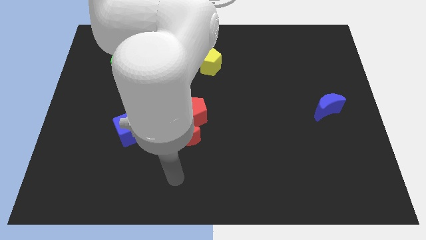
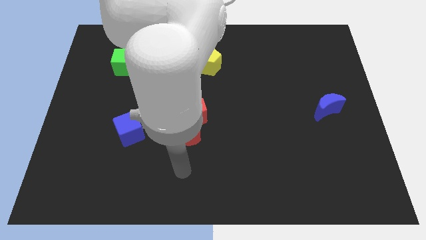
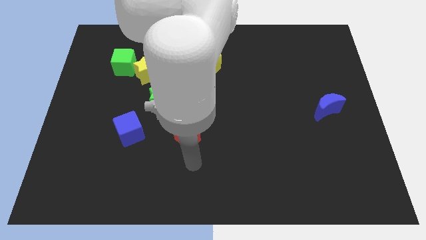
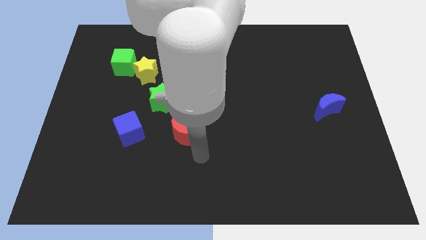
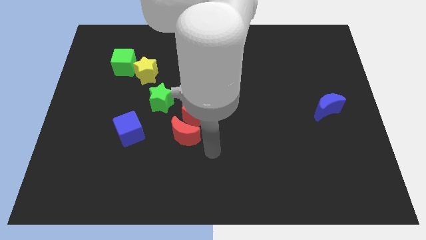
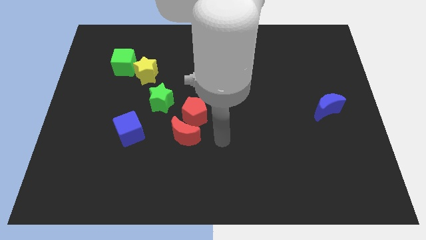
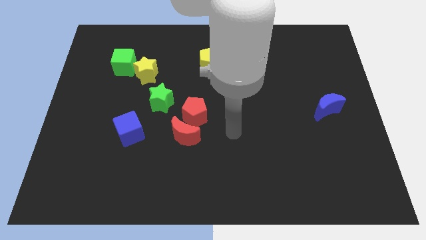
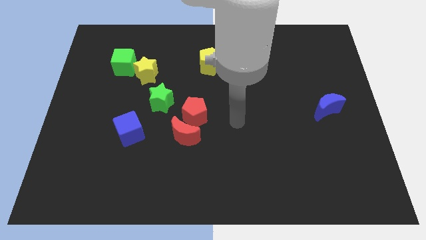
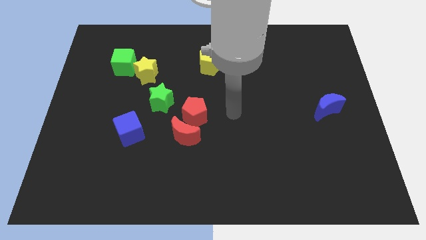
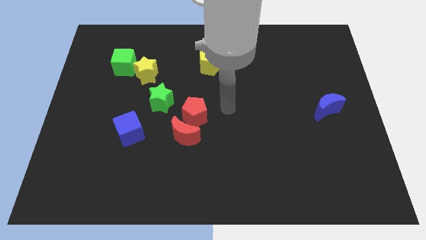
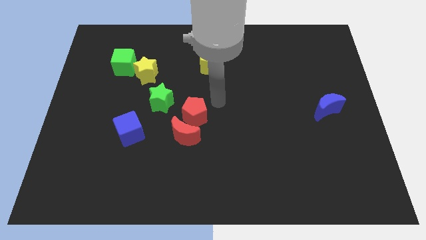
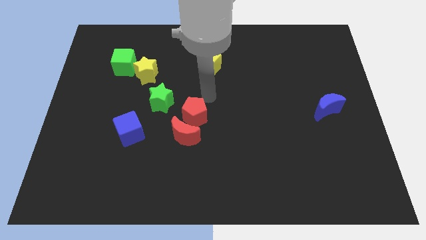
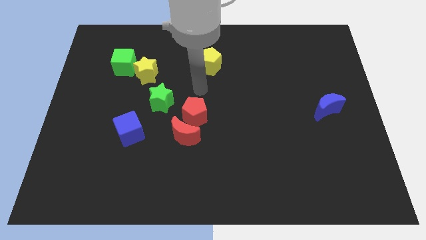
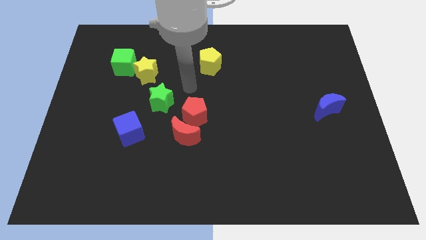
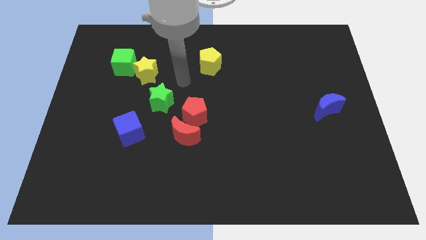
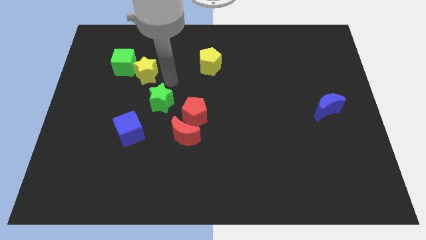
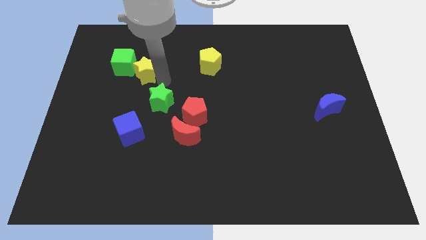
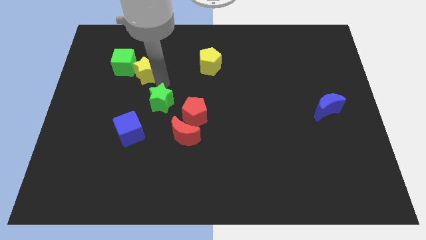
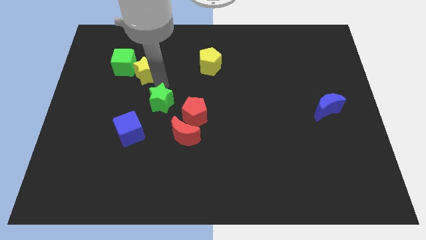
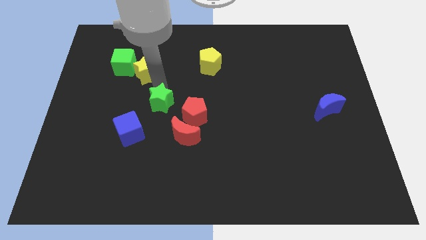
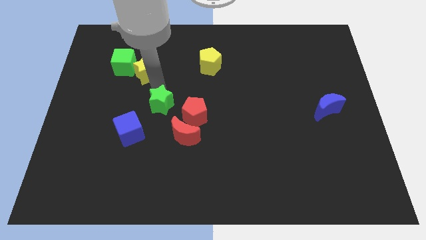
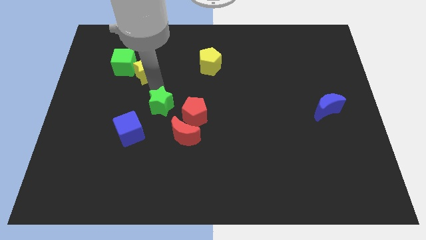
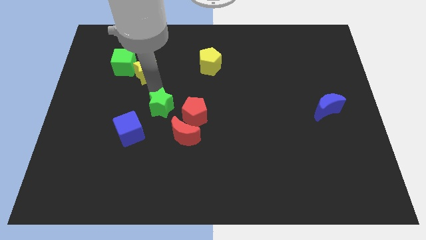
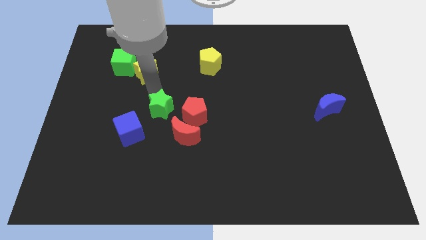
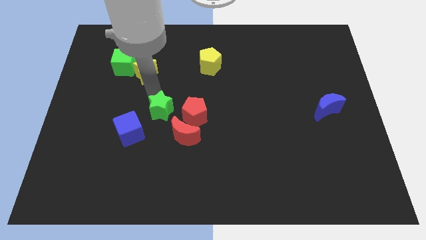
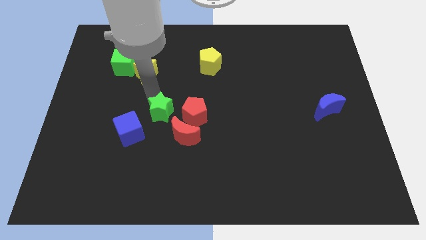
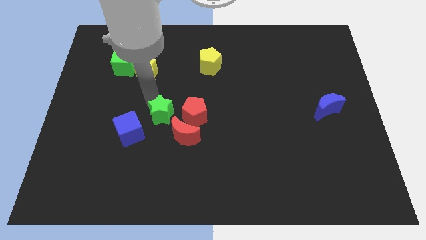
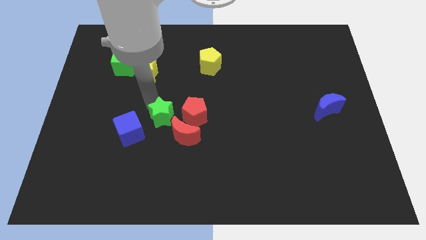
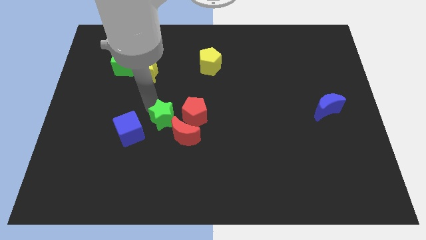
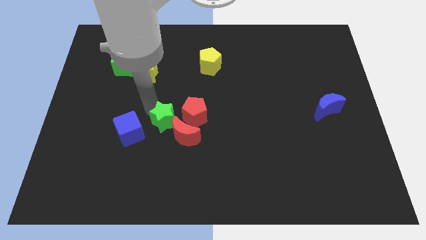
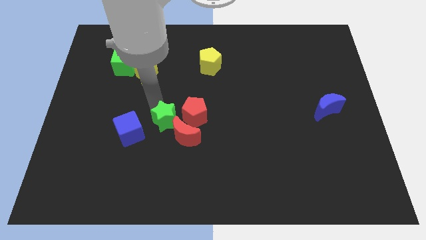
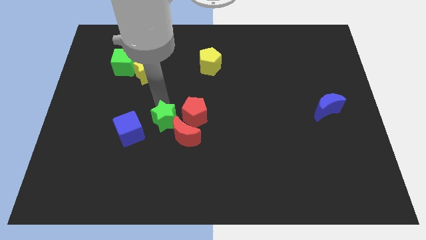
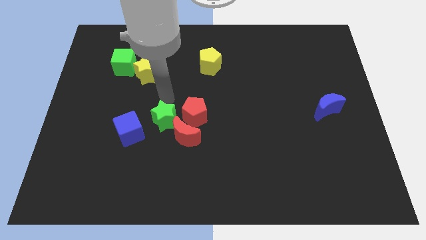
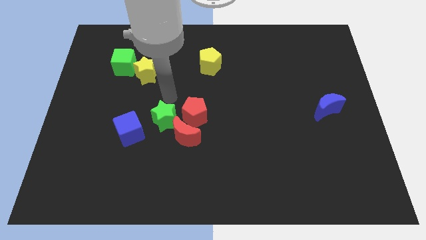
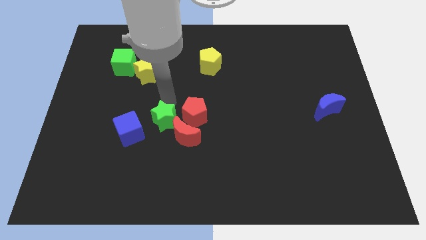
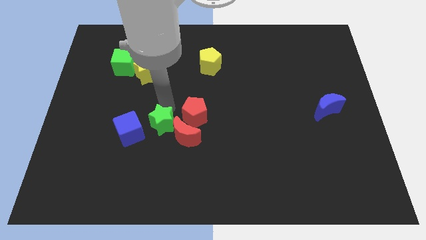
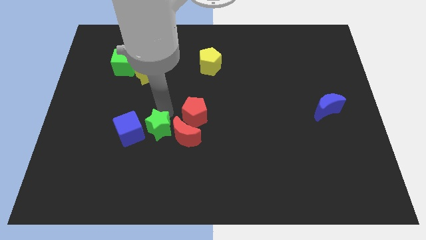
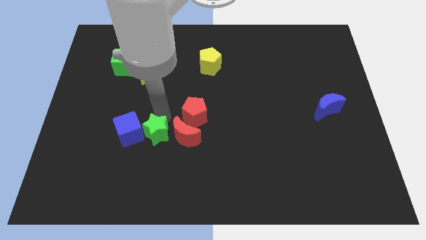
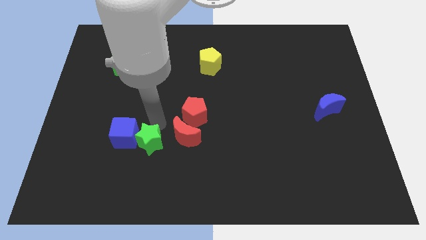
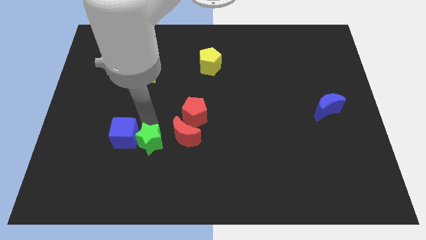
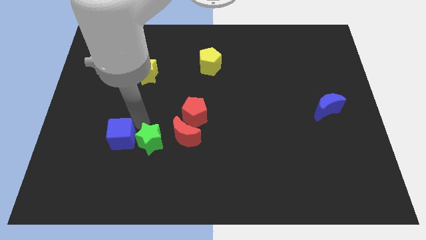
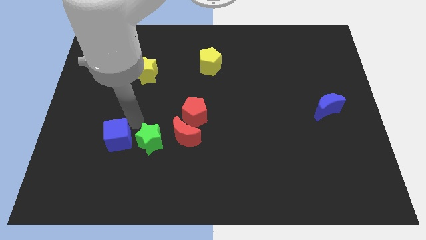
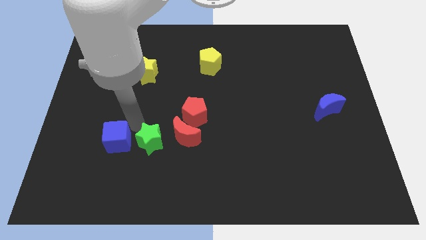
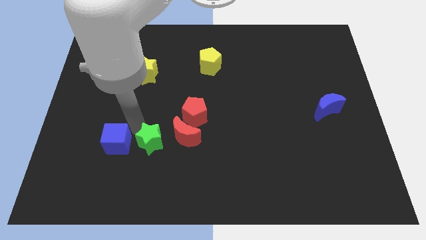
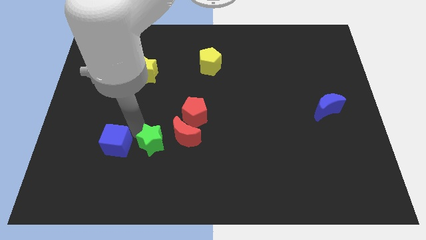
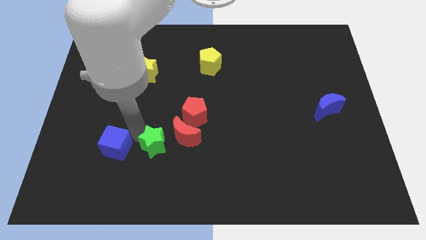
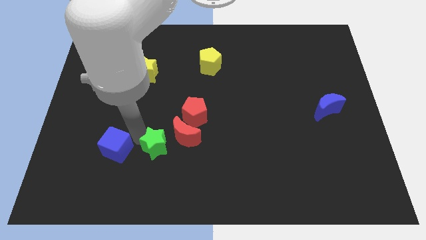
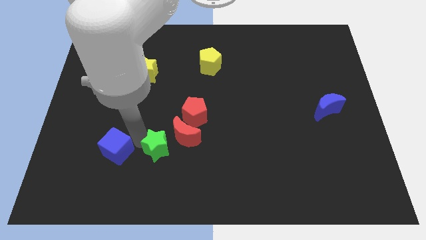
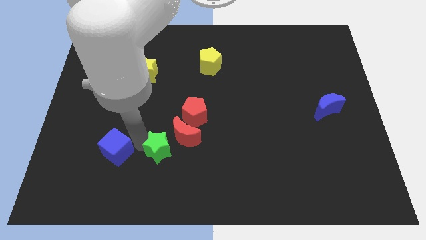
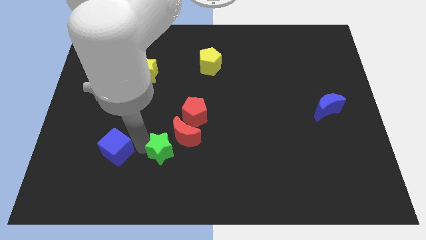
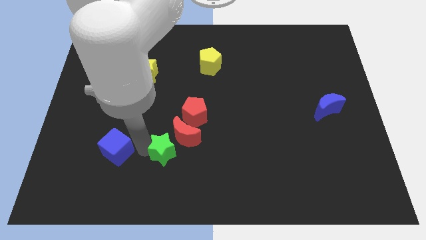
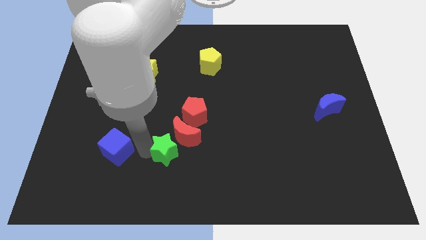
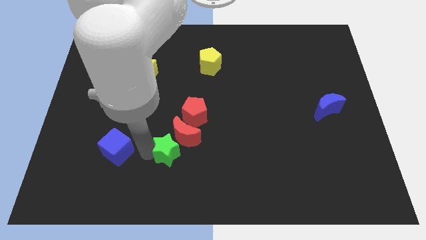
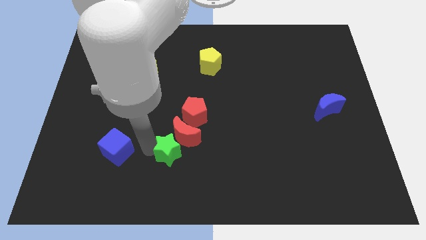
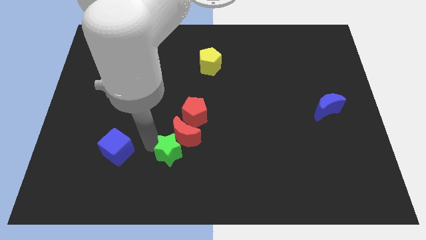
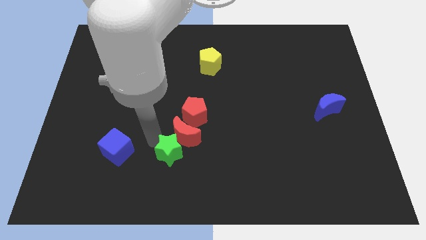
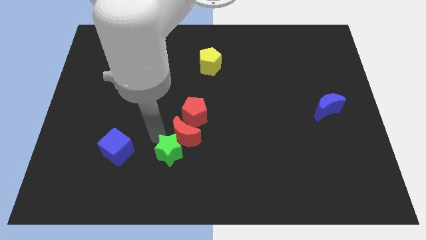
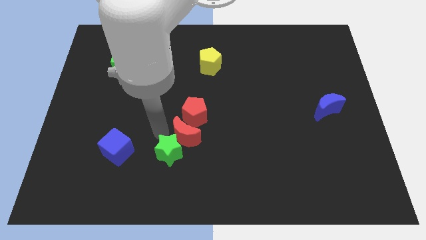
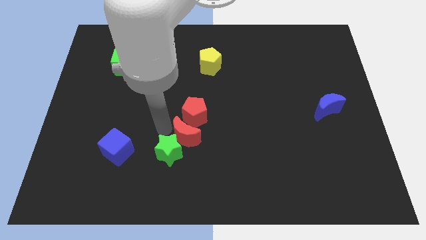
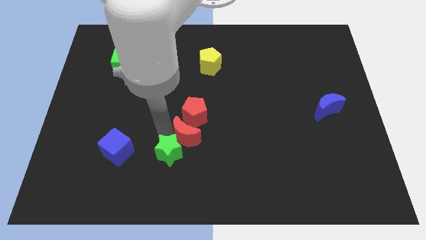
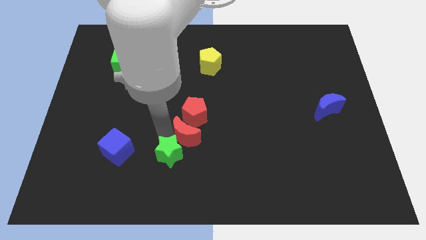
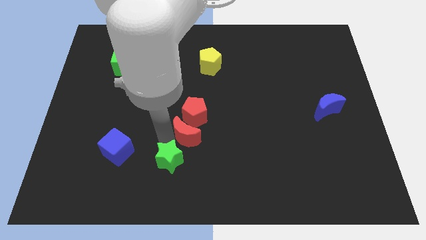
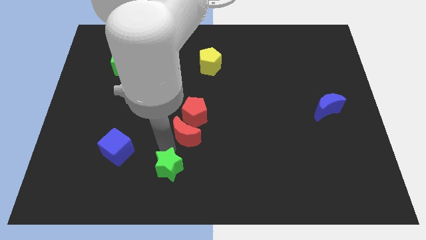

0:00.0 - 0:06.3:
put the green star to the bottom side
